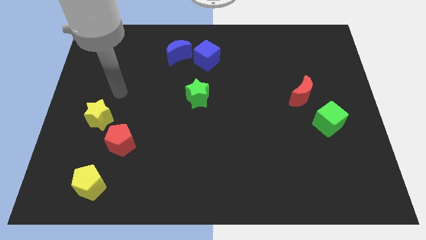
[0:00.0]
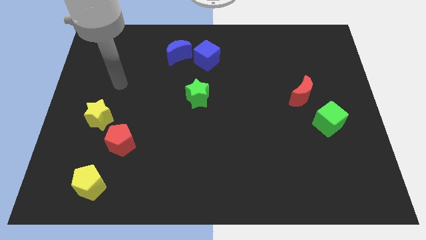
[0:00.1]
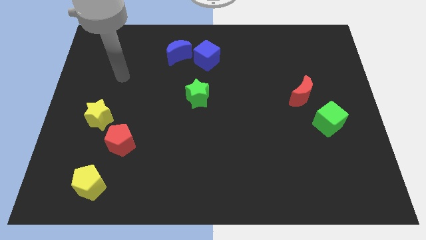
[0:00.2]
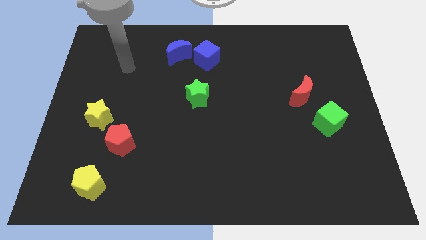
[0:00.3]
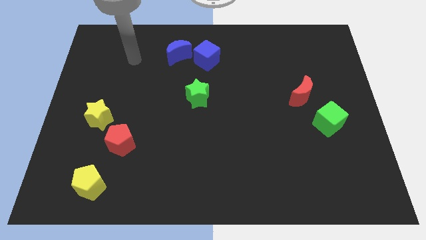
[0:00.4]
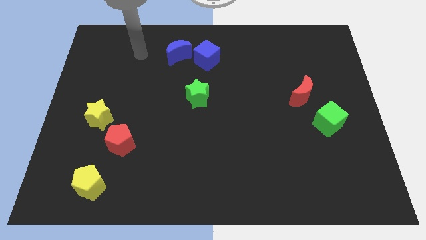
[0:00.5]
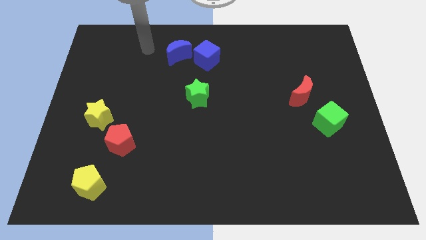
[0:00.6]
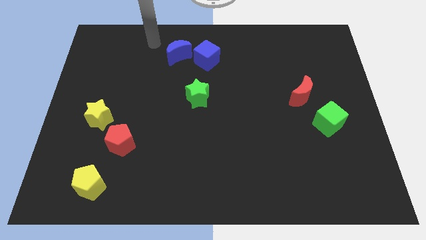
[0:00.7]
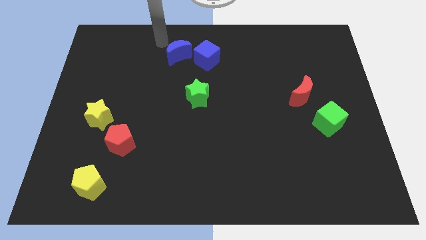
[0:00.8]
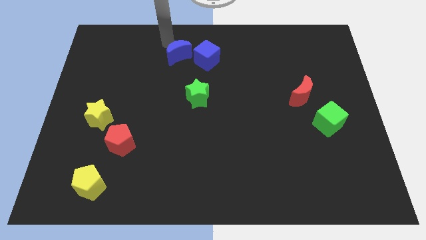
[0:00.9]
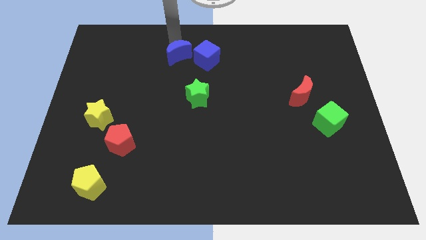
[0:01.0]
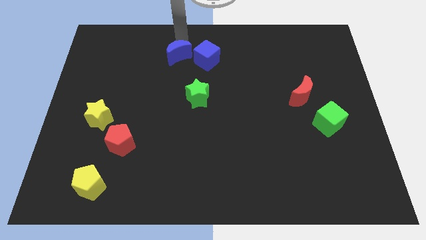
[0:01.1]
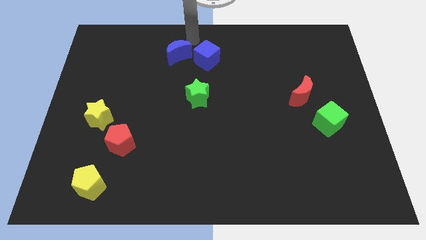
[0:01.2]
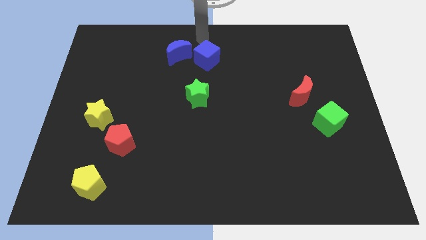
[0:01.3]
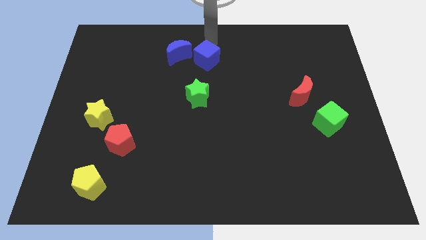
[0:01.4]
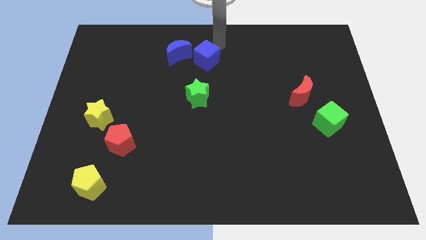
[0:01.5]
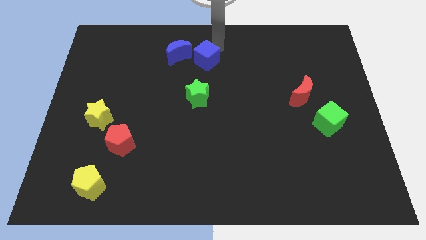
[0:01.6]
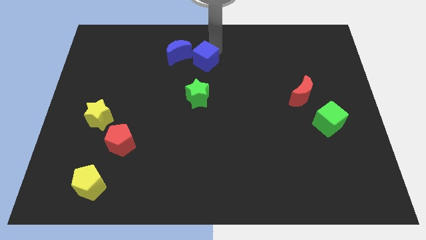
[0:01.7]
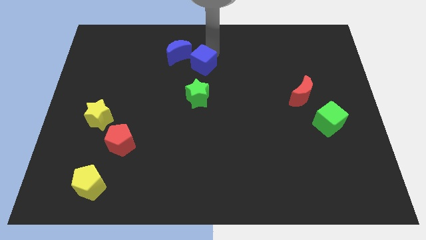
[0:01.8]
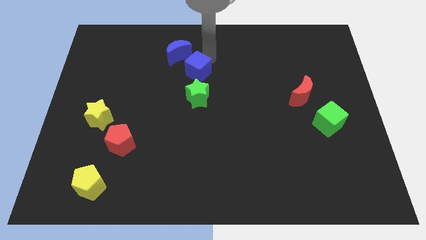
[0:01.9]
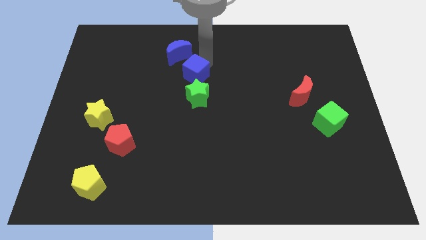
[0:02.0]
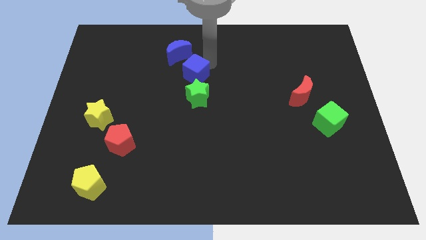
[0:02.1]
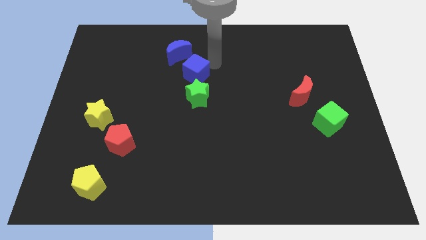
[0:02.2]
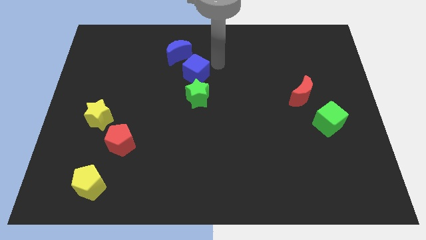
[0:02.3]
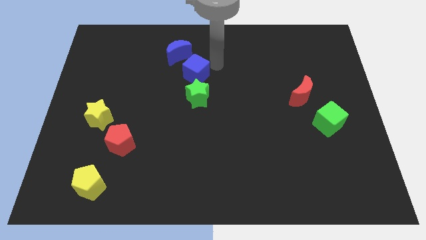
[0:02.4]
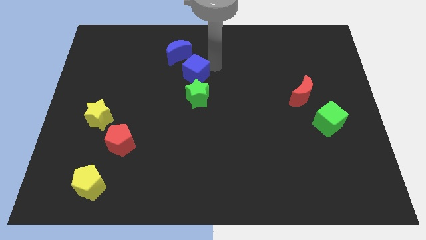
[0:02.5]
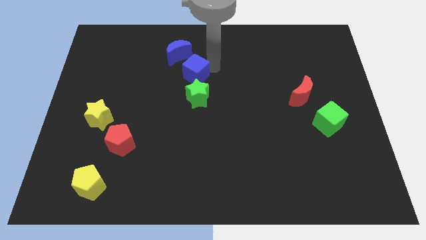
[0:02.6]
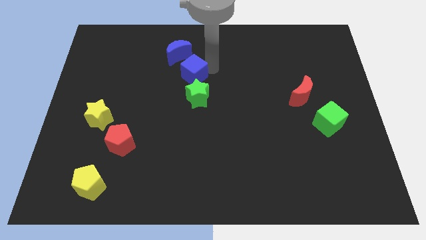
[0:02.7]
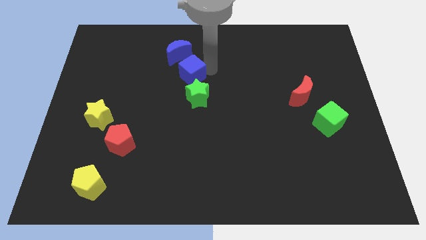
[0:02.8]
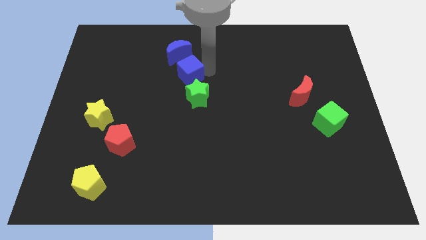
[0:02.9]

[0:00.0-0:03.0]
move the blue cube a bit downwards and left diagonally

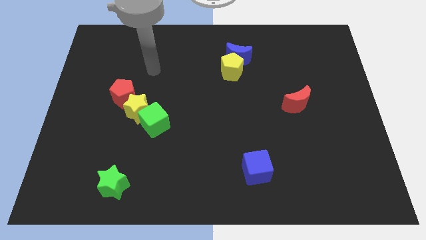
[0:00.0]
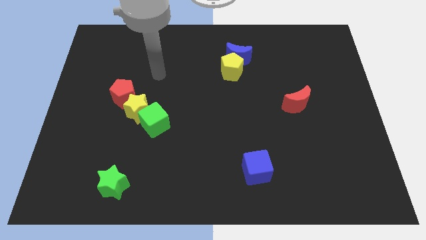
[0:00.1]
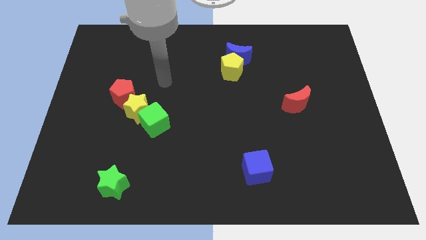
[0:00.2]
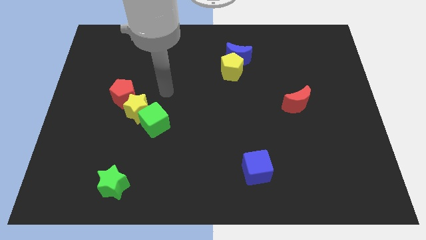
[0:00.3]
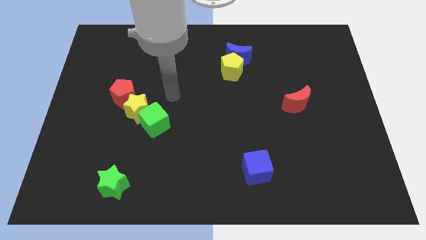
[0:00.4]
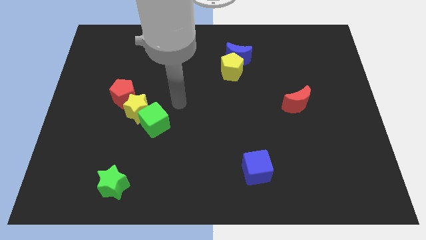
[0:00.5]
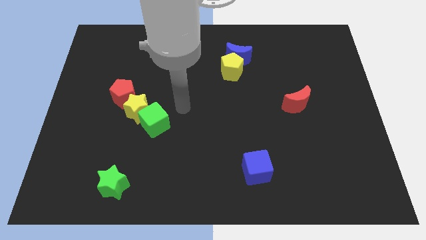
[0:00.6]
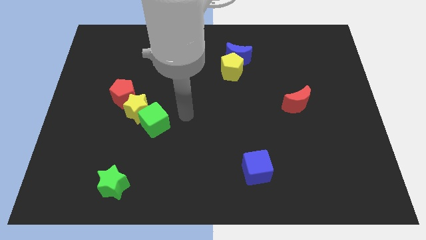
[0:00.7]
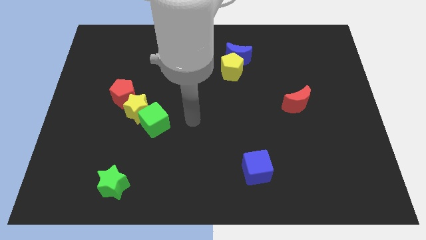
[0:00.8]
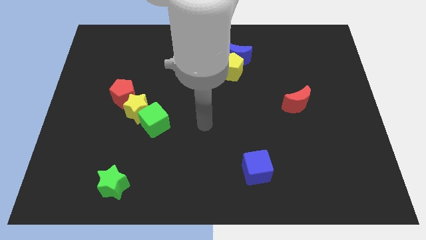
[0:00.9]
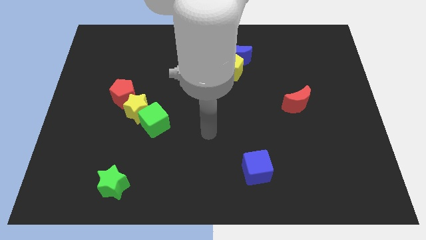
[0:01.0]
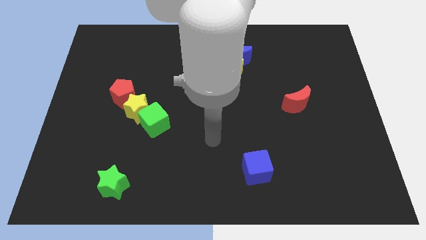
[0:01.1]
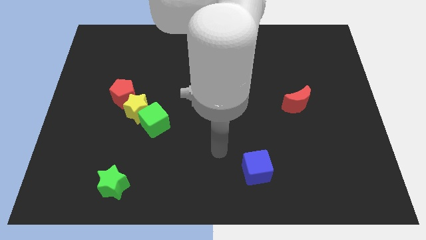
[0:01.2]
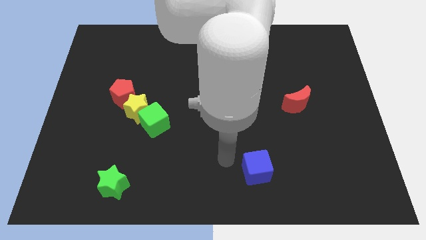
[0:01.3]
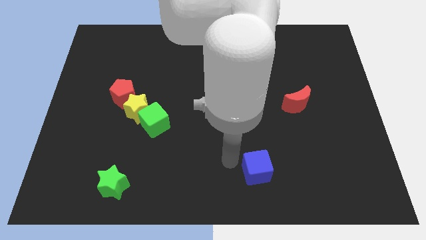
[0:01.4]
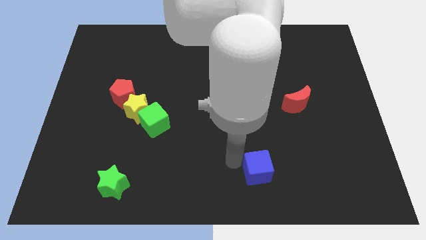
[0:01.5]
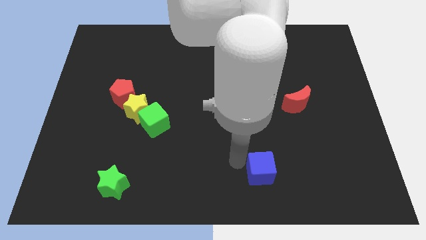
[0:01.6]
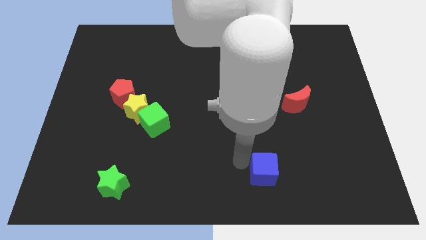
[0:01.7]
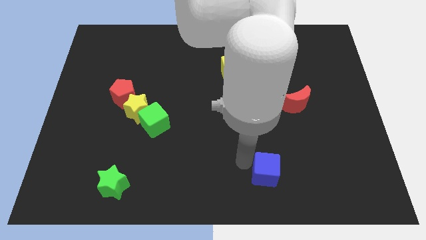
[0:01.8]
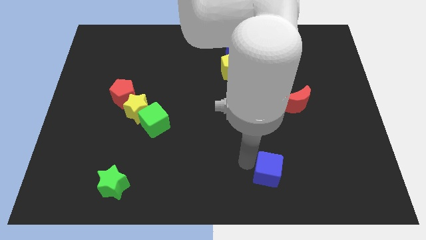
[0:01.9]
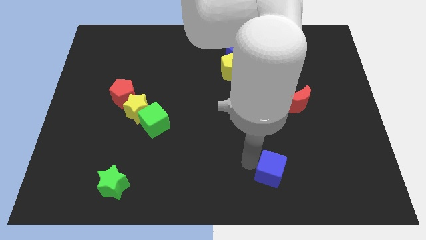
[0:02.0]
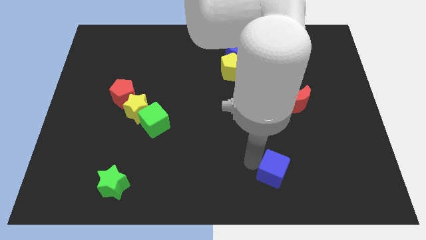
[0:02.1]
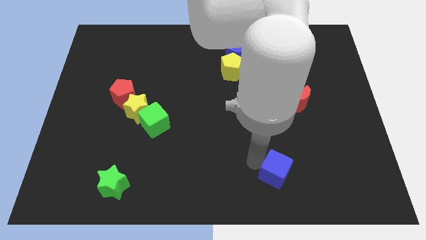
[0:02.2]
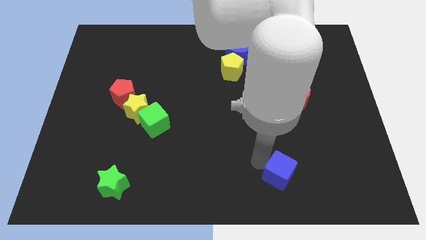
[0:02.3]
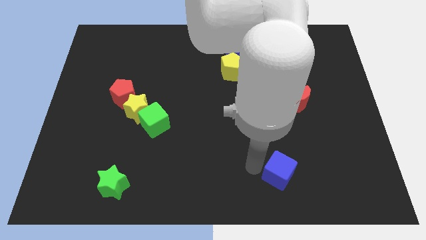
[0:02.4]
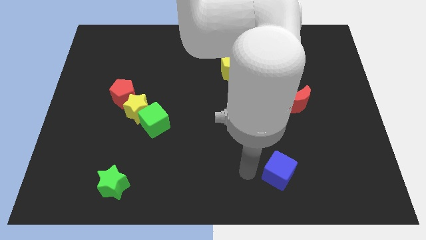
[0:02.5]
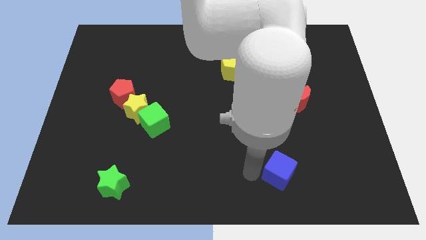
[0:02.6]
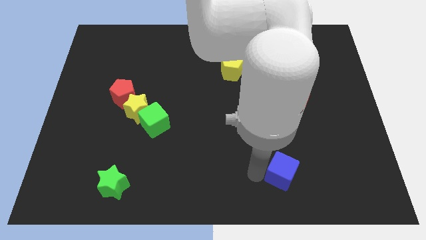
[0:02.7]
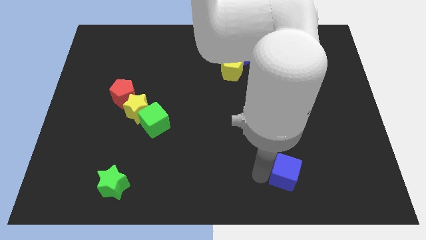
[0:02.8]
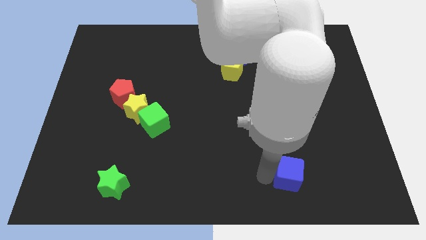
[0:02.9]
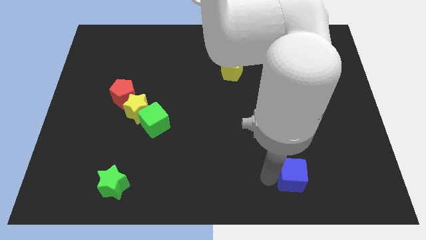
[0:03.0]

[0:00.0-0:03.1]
slide the blue cube to the right a little bit

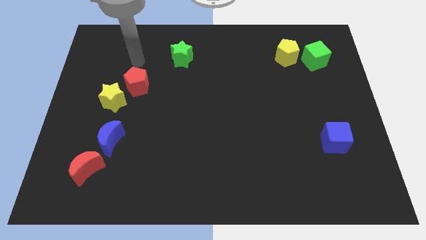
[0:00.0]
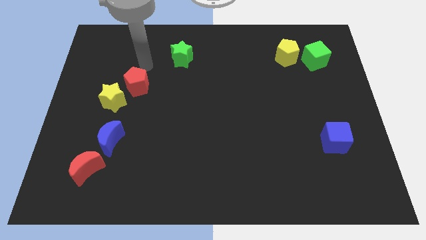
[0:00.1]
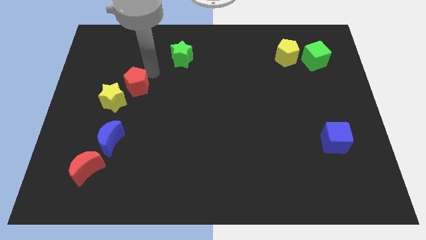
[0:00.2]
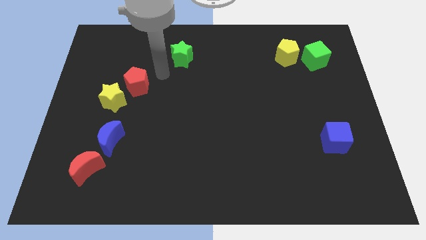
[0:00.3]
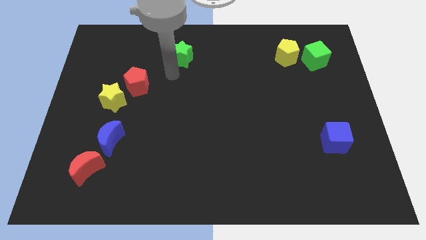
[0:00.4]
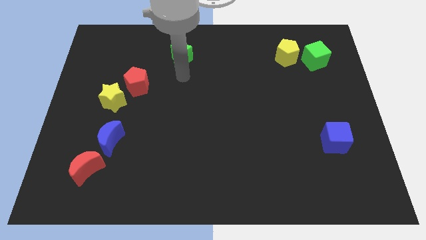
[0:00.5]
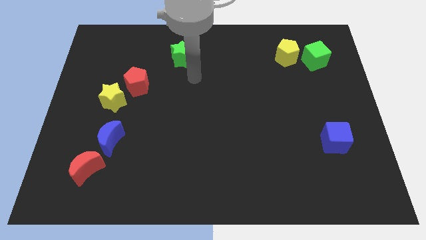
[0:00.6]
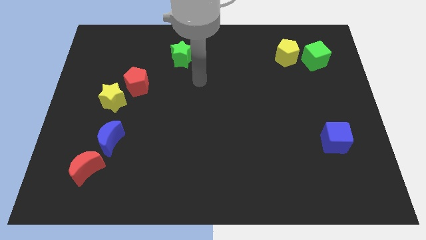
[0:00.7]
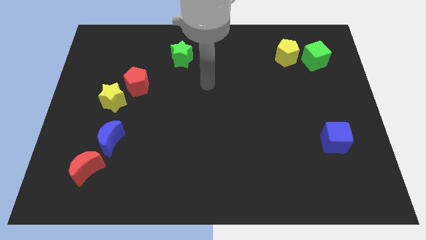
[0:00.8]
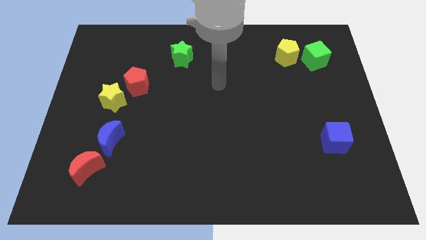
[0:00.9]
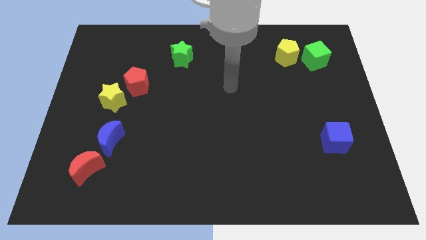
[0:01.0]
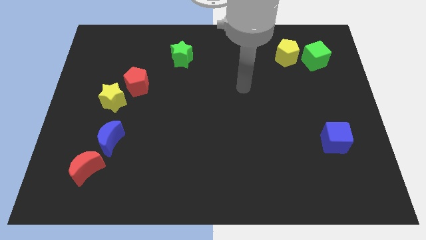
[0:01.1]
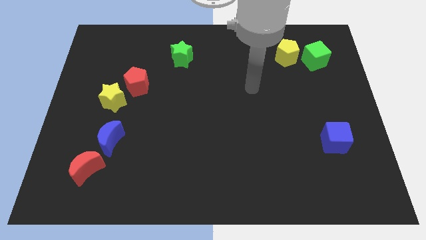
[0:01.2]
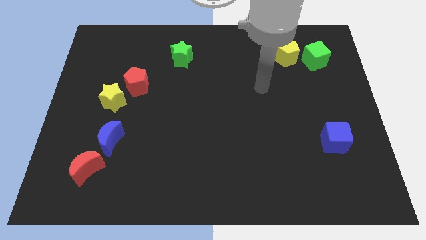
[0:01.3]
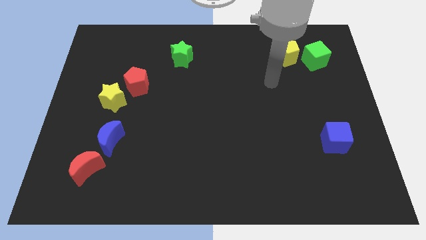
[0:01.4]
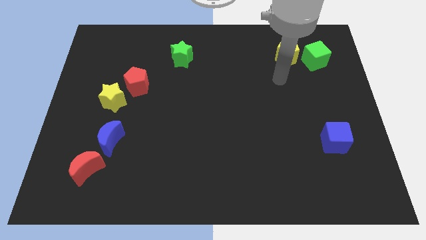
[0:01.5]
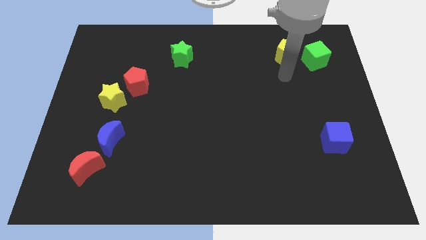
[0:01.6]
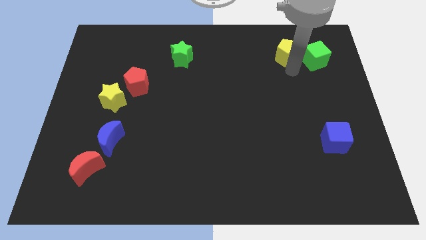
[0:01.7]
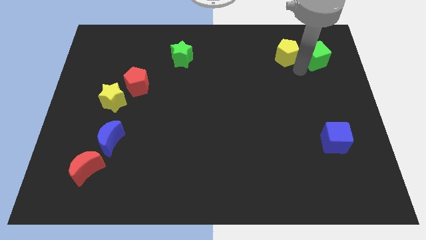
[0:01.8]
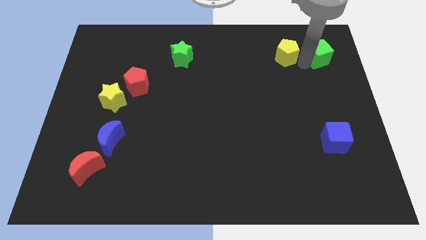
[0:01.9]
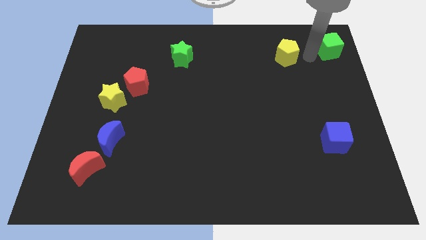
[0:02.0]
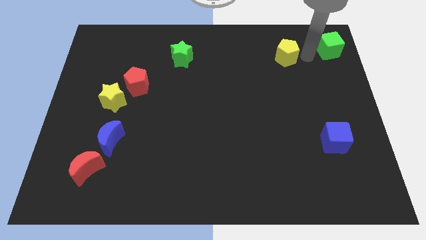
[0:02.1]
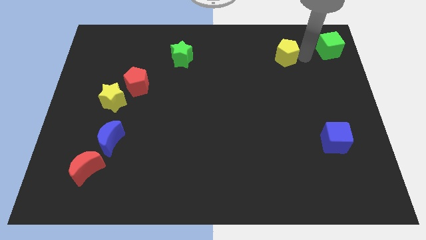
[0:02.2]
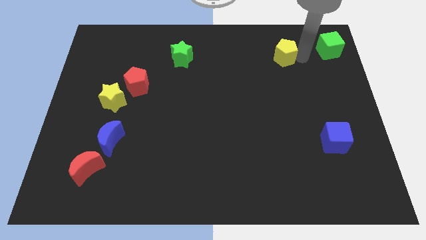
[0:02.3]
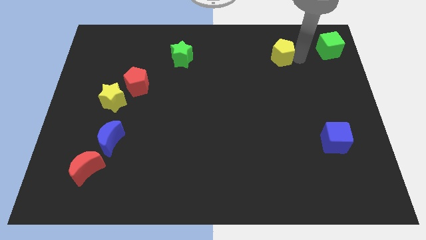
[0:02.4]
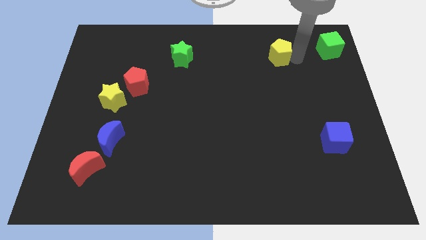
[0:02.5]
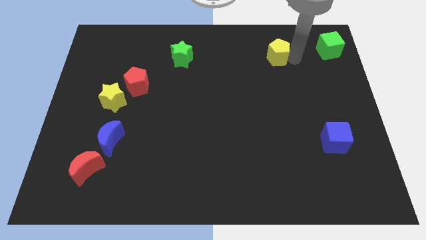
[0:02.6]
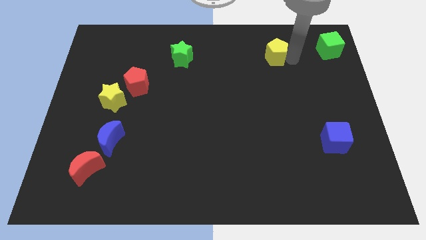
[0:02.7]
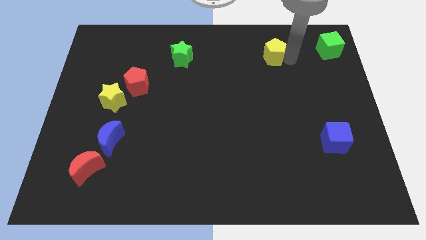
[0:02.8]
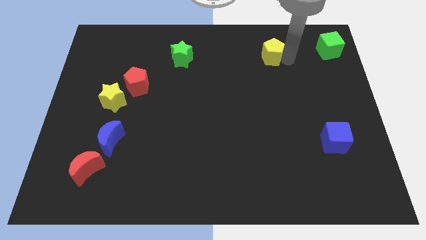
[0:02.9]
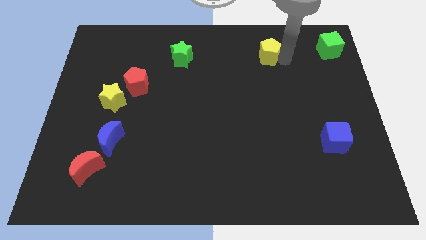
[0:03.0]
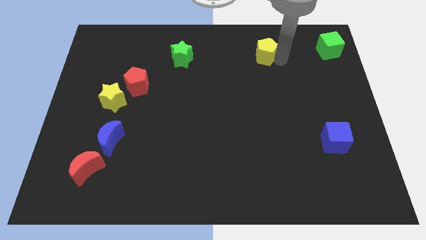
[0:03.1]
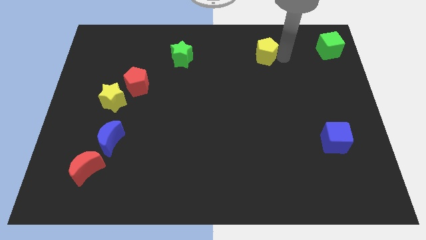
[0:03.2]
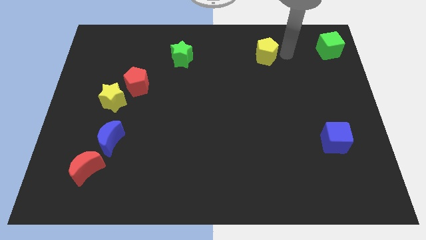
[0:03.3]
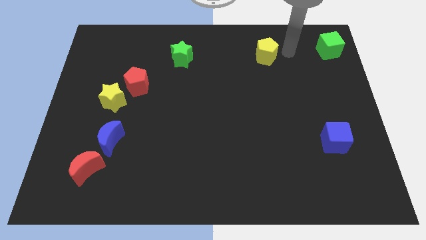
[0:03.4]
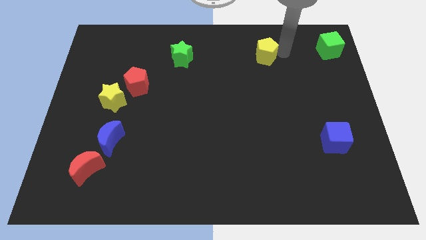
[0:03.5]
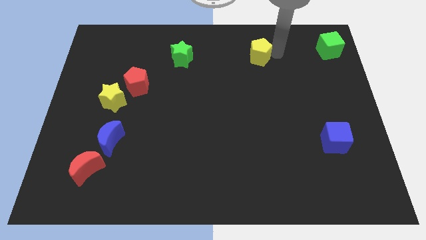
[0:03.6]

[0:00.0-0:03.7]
slightly slide the yellow pentagon left
